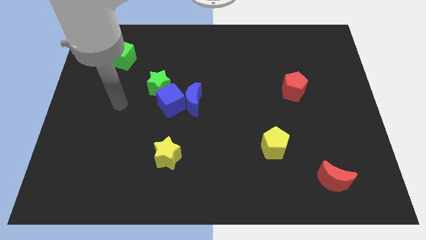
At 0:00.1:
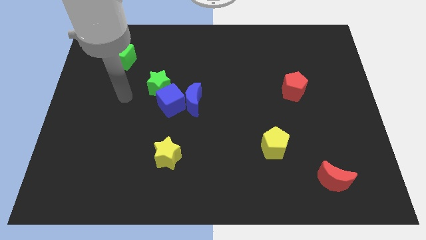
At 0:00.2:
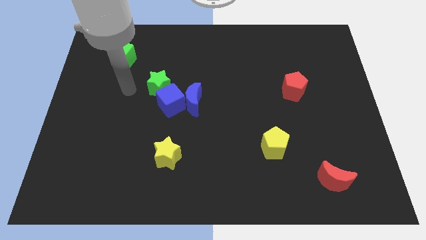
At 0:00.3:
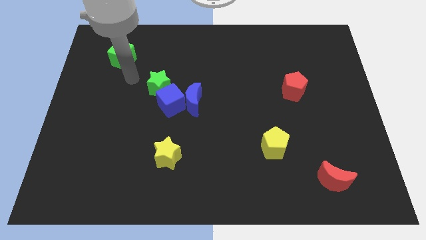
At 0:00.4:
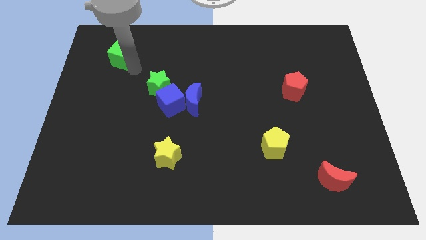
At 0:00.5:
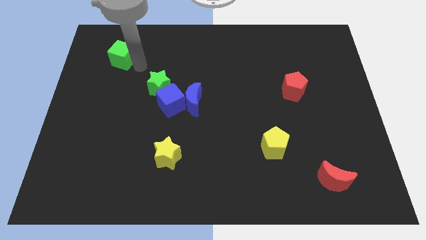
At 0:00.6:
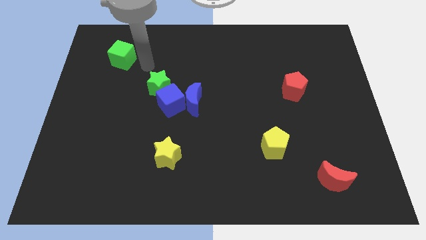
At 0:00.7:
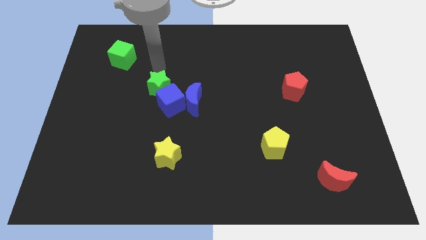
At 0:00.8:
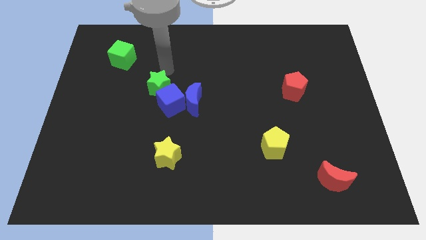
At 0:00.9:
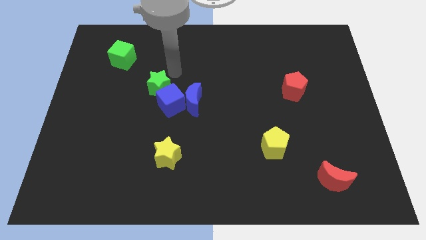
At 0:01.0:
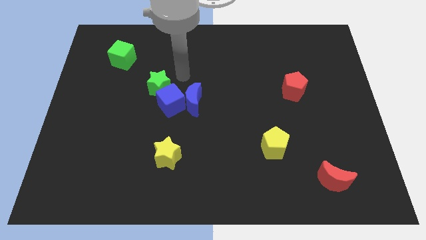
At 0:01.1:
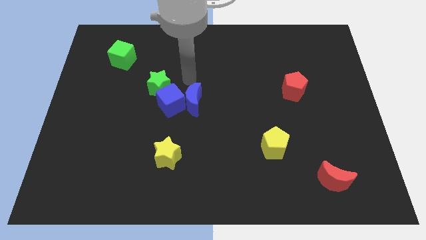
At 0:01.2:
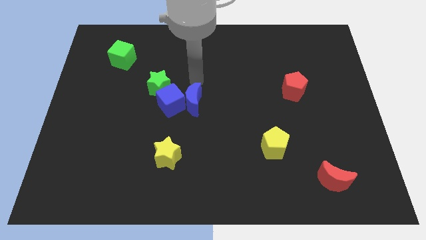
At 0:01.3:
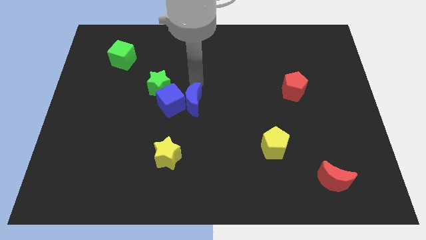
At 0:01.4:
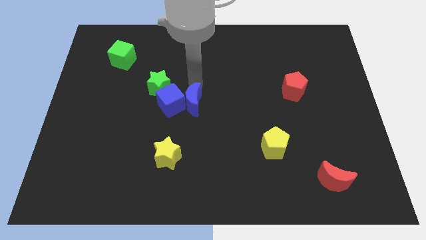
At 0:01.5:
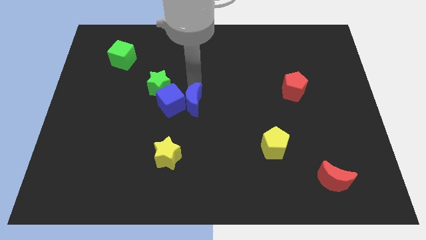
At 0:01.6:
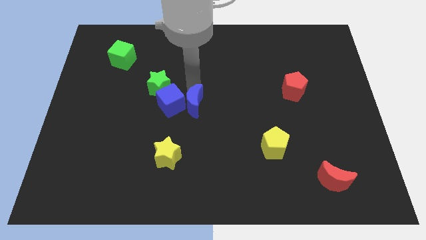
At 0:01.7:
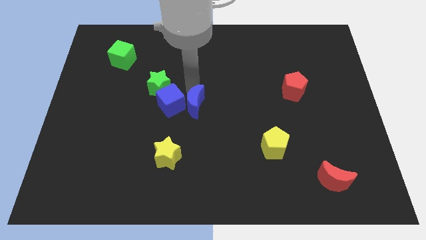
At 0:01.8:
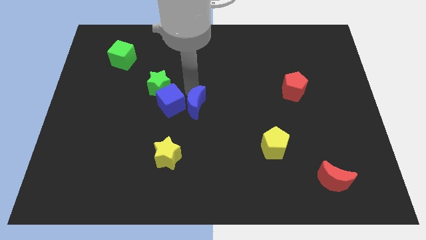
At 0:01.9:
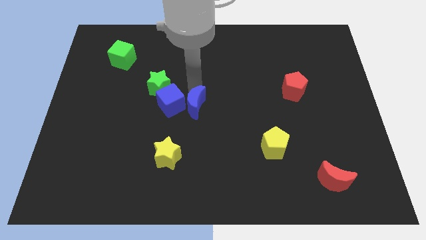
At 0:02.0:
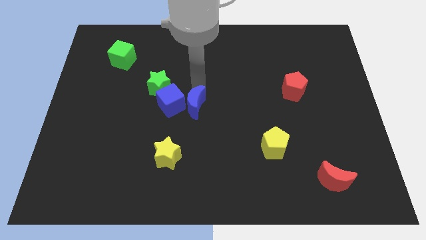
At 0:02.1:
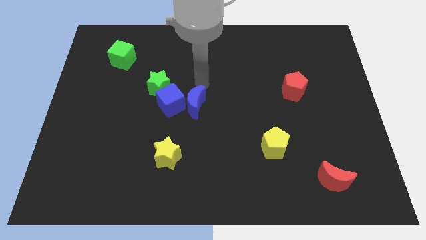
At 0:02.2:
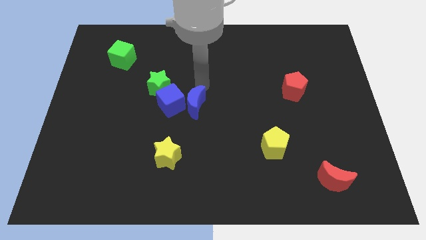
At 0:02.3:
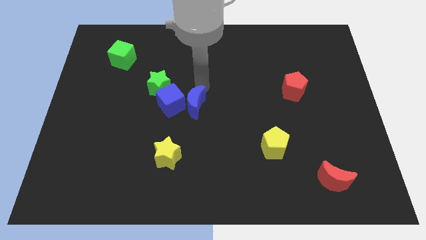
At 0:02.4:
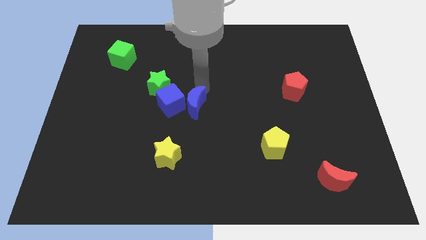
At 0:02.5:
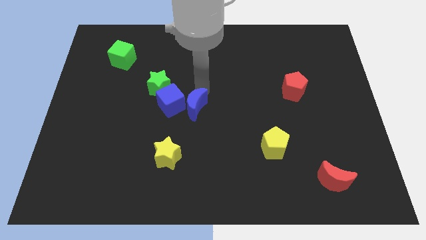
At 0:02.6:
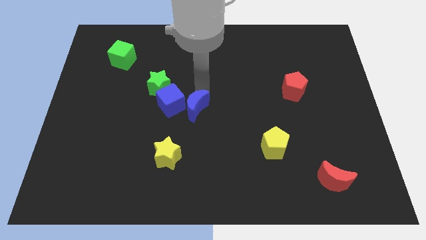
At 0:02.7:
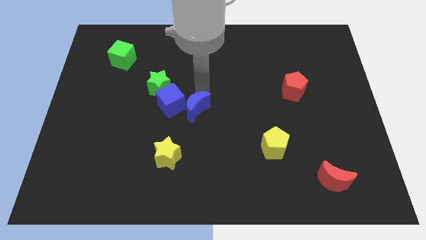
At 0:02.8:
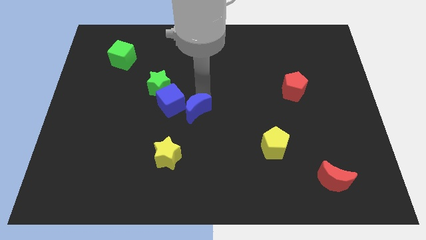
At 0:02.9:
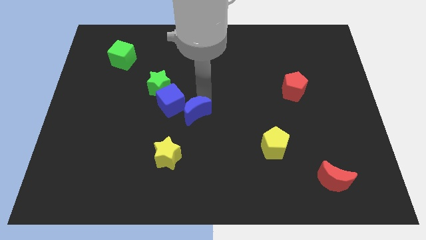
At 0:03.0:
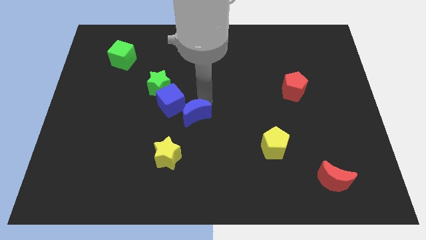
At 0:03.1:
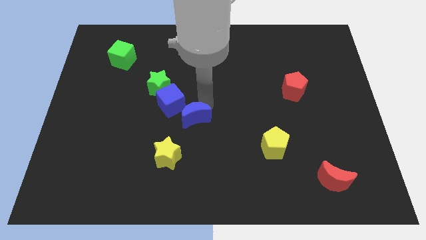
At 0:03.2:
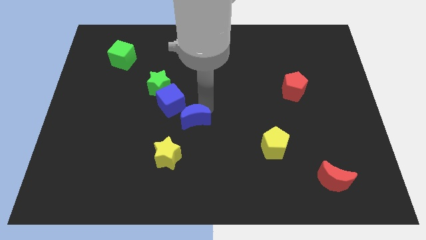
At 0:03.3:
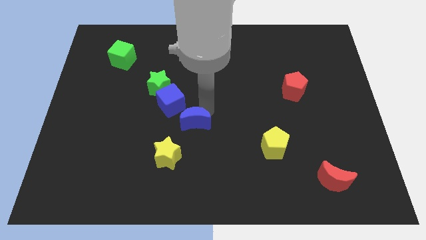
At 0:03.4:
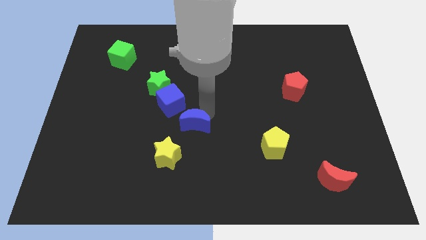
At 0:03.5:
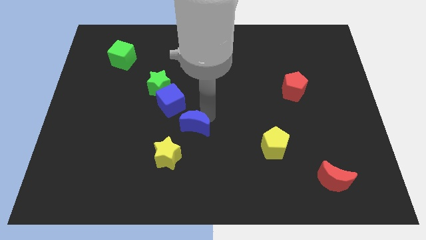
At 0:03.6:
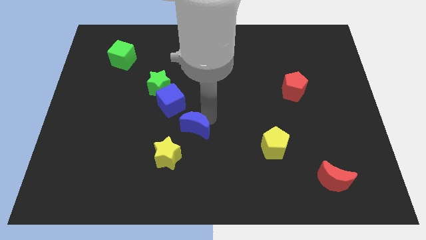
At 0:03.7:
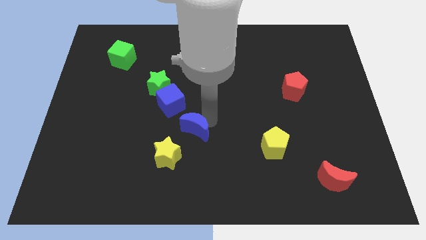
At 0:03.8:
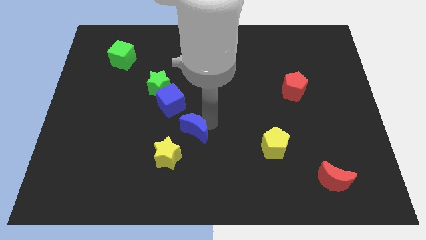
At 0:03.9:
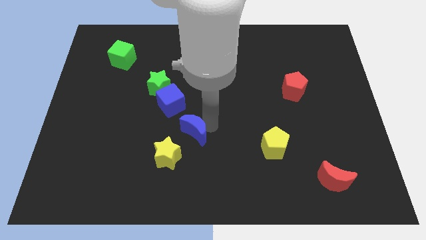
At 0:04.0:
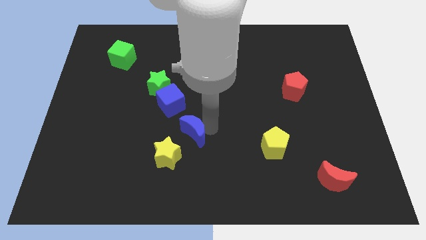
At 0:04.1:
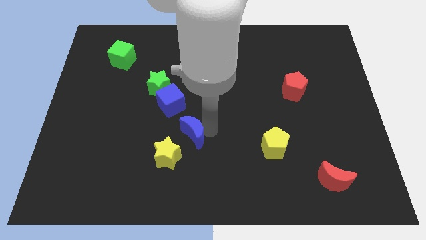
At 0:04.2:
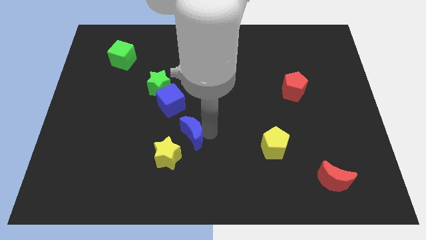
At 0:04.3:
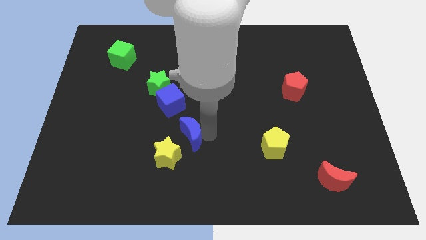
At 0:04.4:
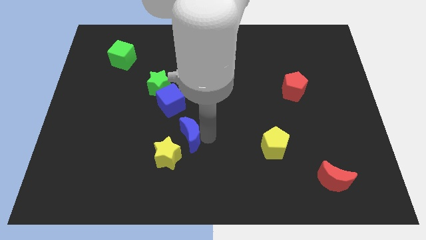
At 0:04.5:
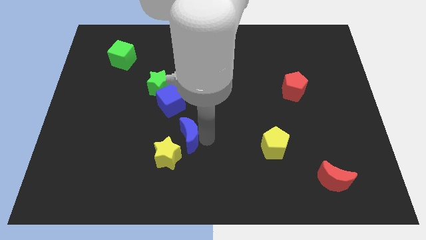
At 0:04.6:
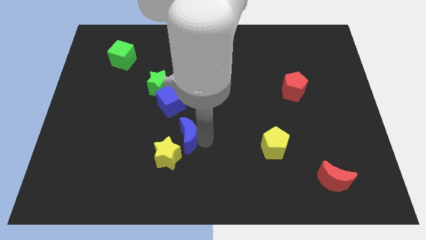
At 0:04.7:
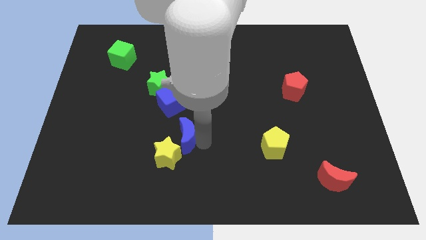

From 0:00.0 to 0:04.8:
put the blue moon next to the yellow star

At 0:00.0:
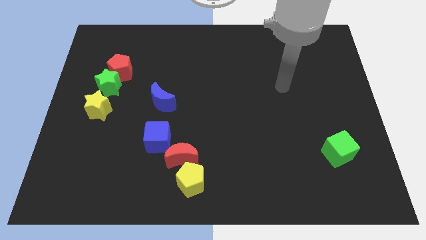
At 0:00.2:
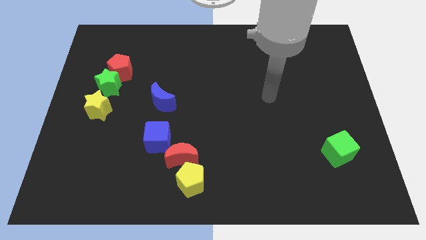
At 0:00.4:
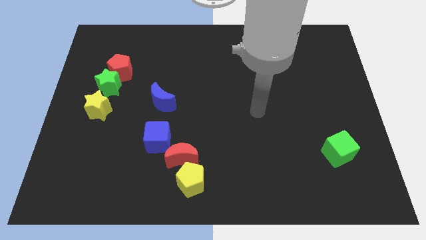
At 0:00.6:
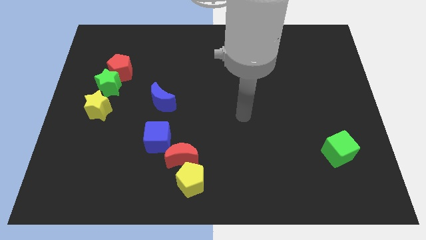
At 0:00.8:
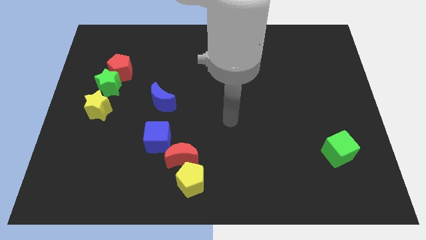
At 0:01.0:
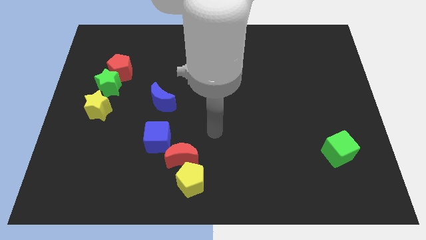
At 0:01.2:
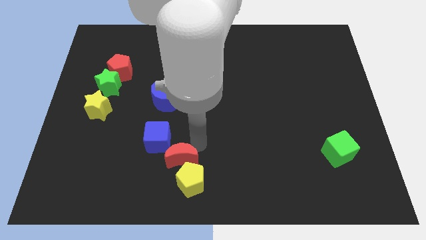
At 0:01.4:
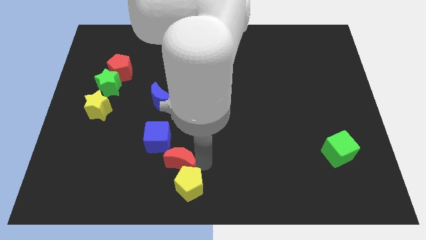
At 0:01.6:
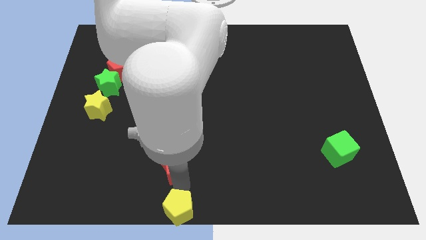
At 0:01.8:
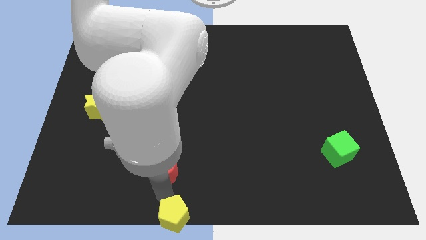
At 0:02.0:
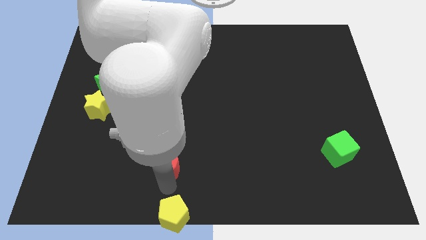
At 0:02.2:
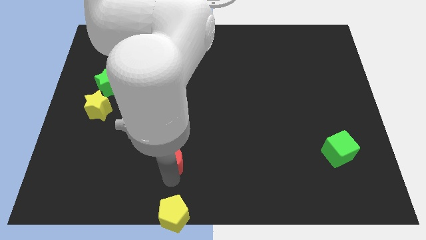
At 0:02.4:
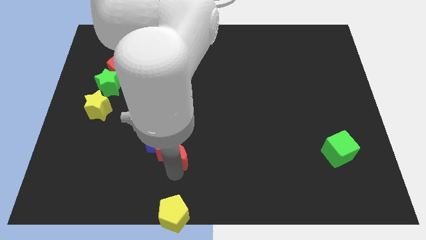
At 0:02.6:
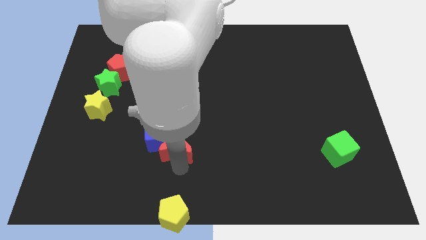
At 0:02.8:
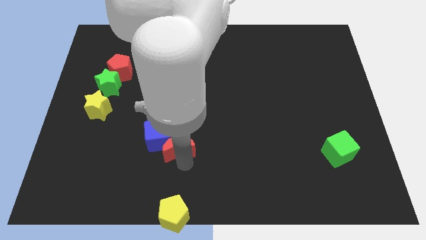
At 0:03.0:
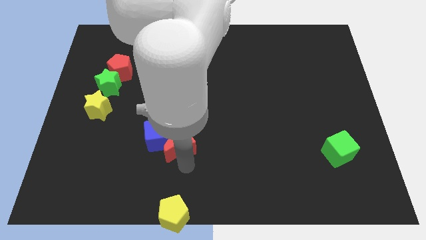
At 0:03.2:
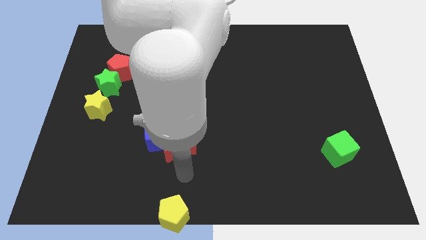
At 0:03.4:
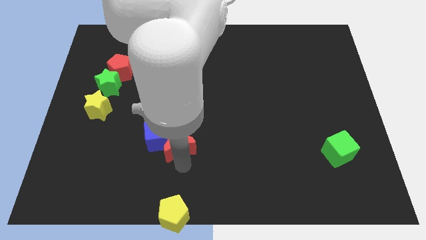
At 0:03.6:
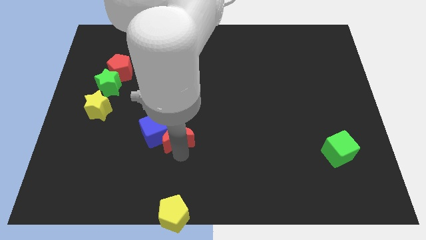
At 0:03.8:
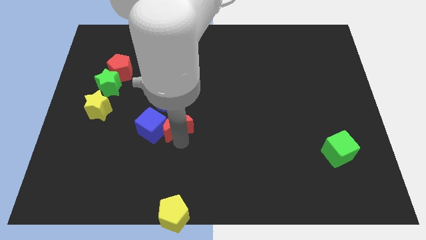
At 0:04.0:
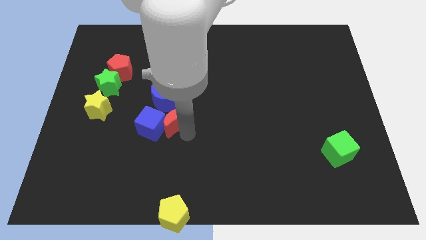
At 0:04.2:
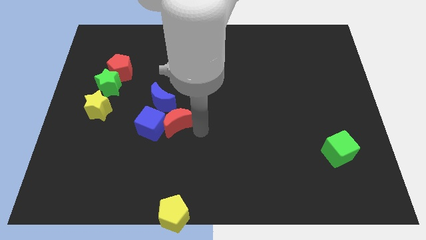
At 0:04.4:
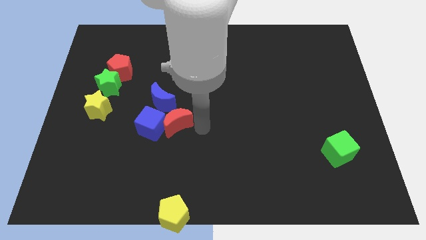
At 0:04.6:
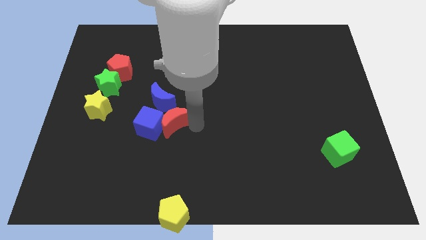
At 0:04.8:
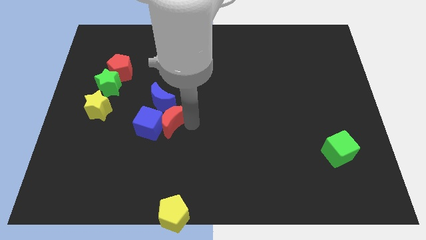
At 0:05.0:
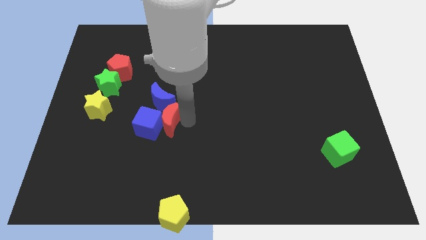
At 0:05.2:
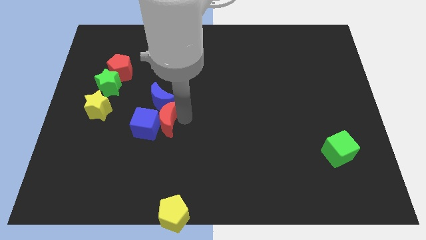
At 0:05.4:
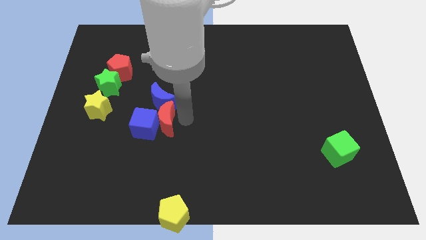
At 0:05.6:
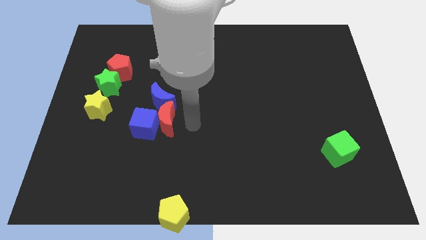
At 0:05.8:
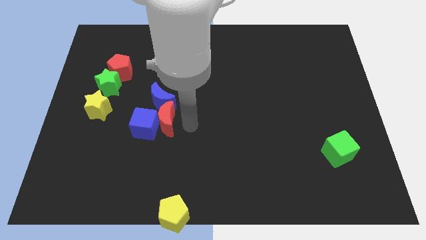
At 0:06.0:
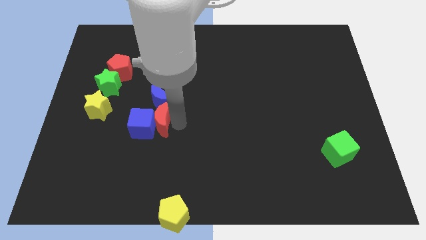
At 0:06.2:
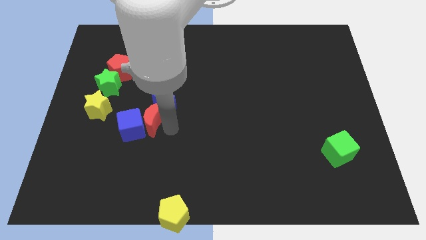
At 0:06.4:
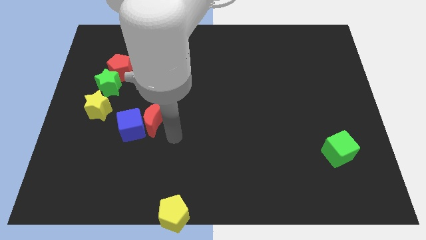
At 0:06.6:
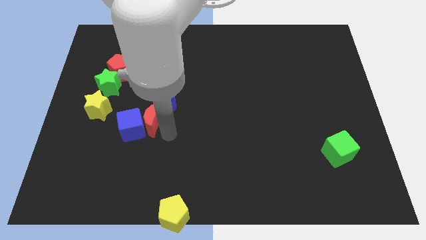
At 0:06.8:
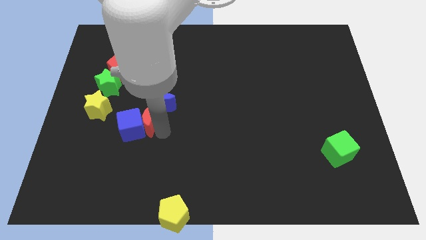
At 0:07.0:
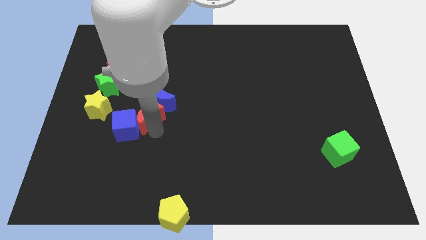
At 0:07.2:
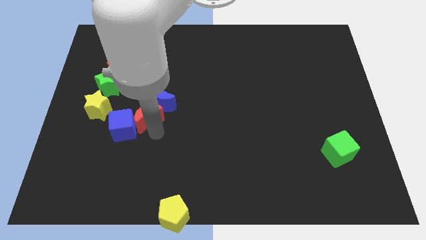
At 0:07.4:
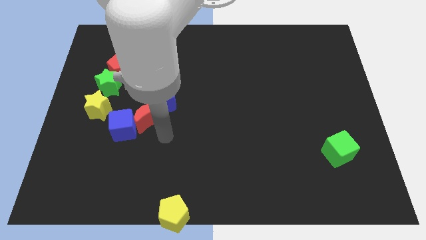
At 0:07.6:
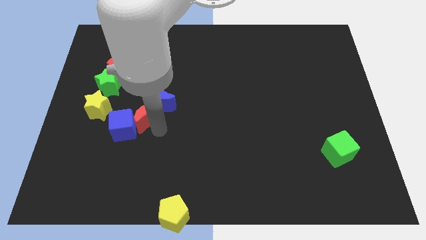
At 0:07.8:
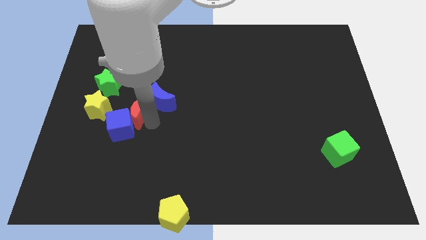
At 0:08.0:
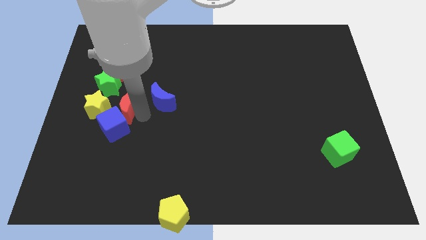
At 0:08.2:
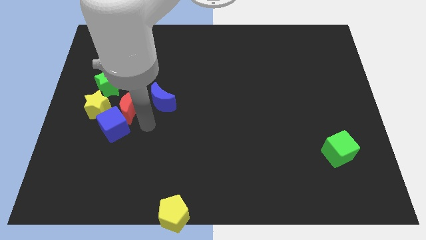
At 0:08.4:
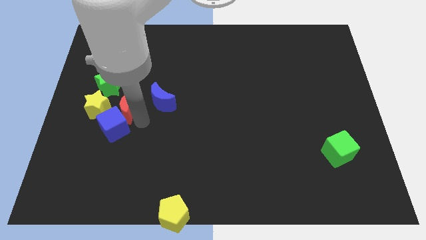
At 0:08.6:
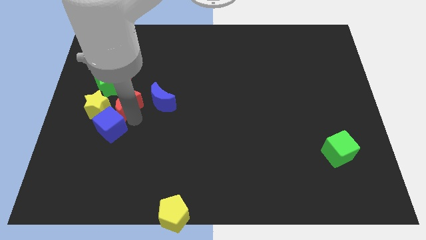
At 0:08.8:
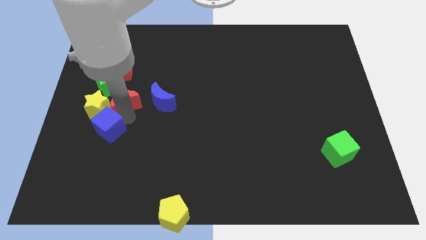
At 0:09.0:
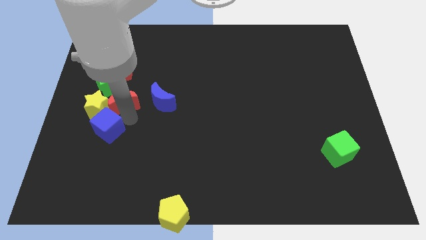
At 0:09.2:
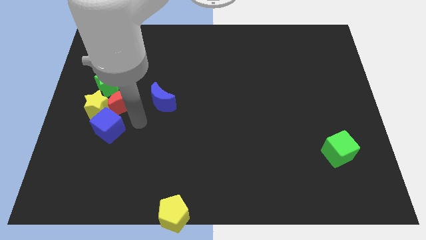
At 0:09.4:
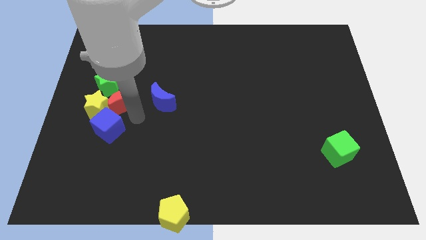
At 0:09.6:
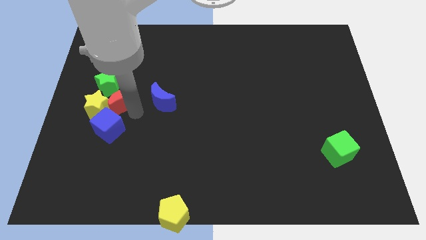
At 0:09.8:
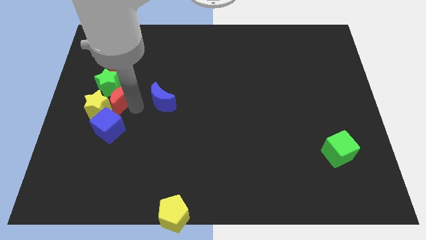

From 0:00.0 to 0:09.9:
push the red moon to the green star
